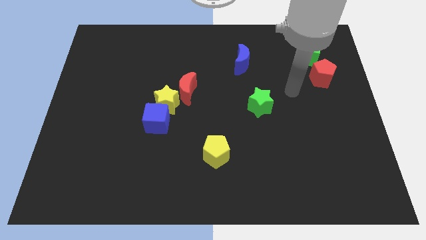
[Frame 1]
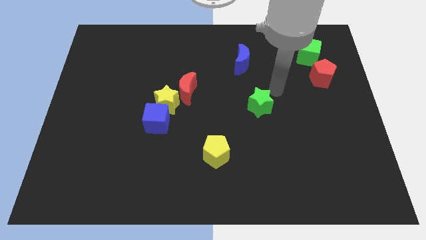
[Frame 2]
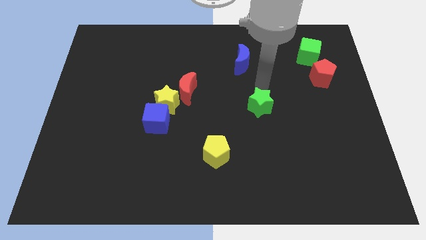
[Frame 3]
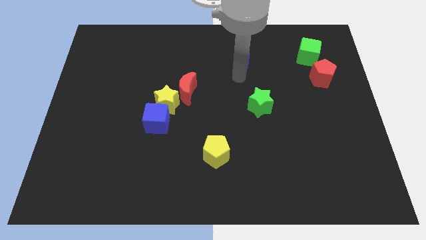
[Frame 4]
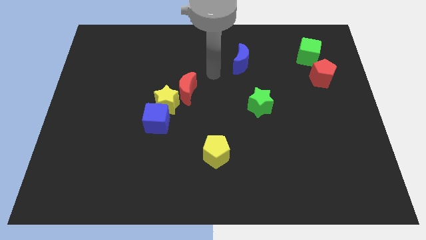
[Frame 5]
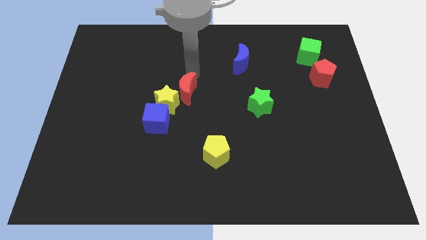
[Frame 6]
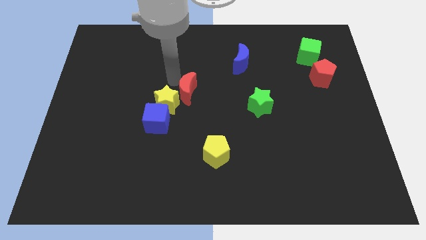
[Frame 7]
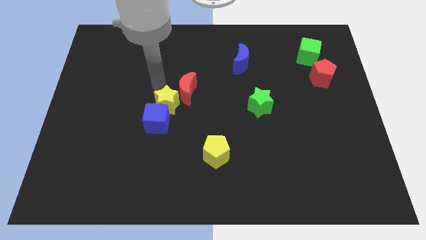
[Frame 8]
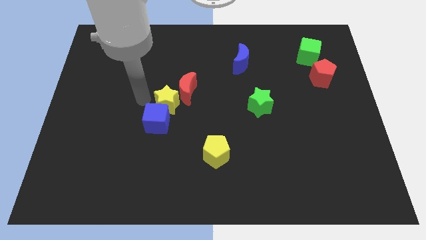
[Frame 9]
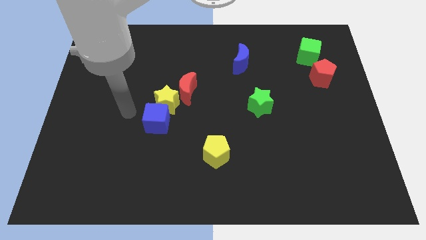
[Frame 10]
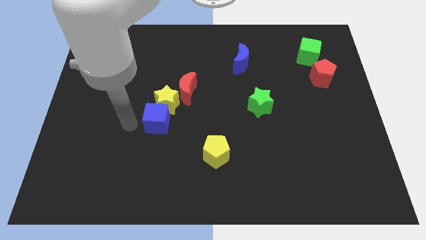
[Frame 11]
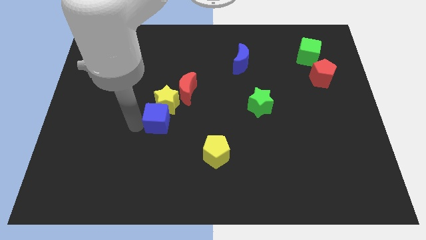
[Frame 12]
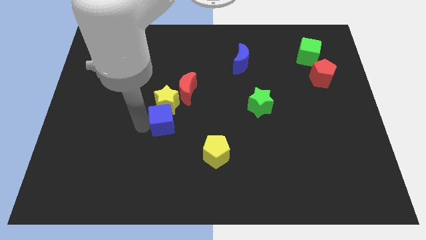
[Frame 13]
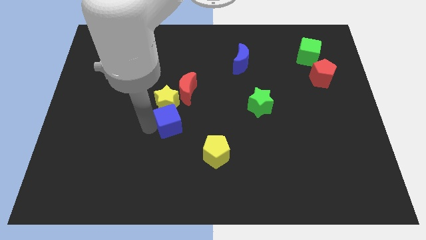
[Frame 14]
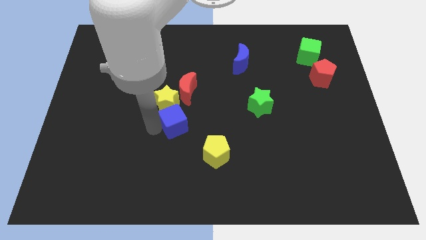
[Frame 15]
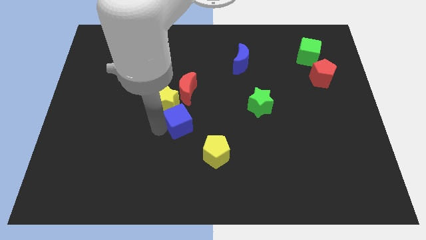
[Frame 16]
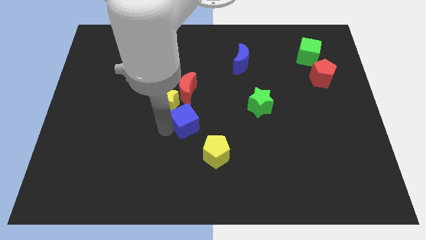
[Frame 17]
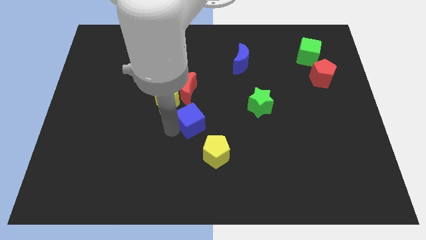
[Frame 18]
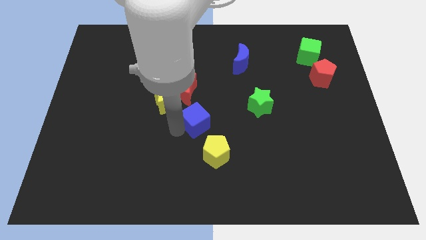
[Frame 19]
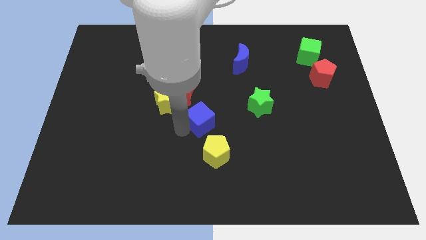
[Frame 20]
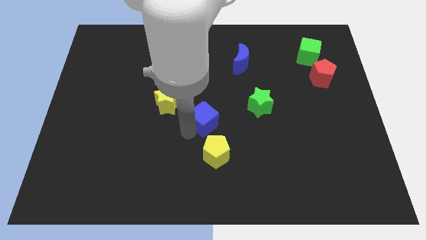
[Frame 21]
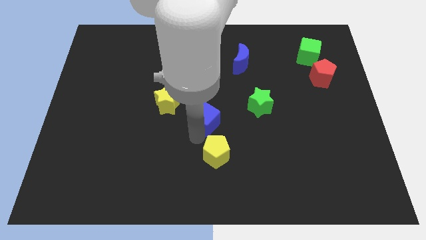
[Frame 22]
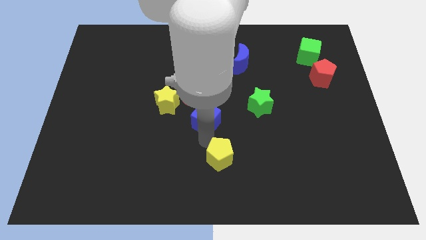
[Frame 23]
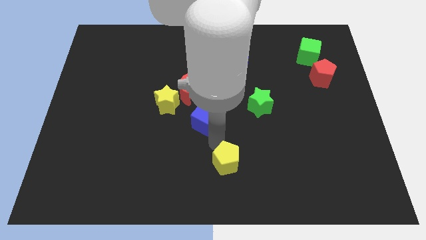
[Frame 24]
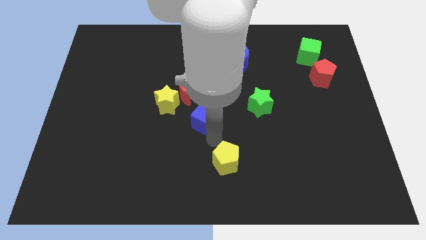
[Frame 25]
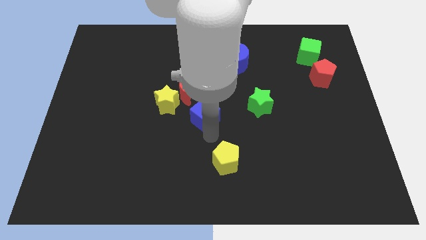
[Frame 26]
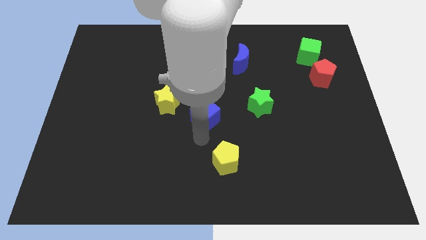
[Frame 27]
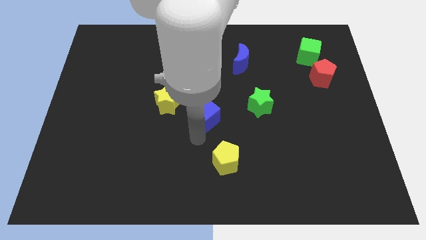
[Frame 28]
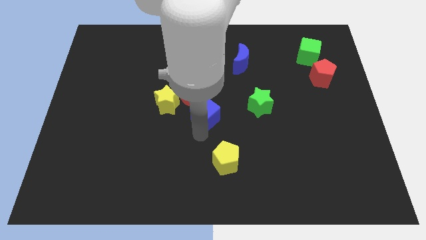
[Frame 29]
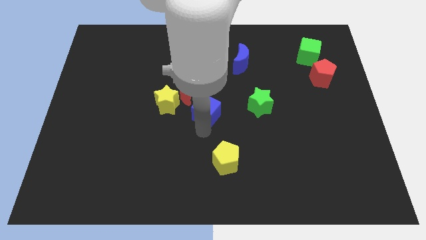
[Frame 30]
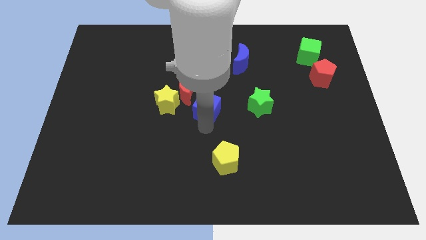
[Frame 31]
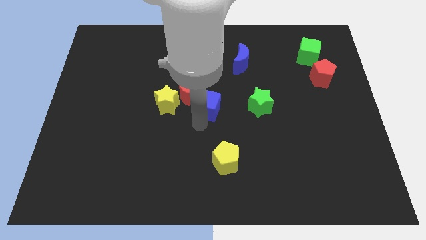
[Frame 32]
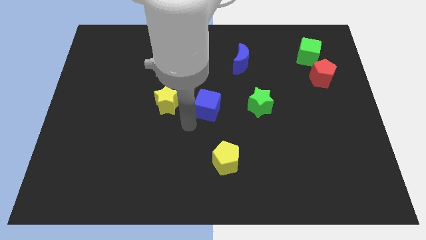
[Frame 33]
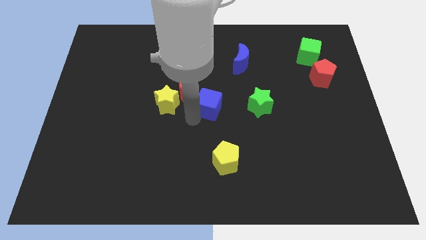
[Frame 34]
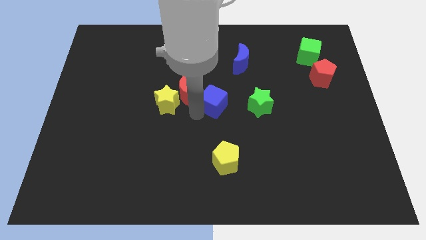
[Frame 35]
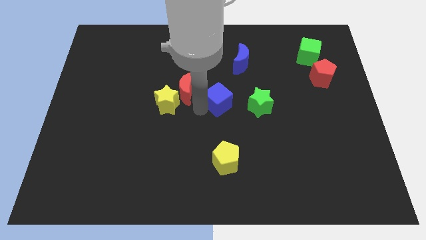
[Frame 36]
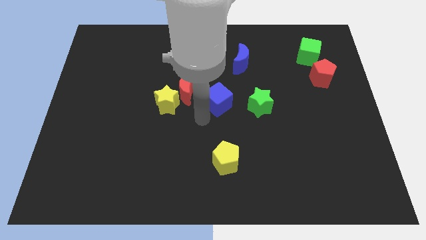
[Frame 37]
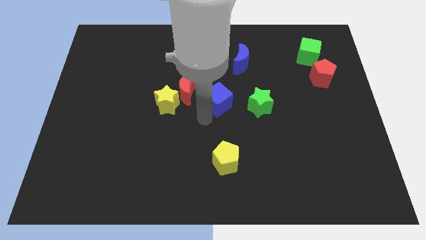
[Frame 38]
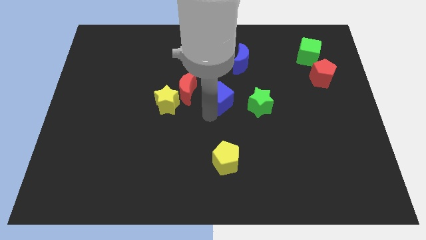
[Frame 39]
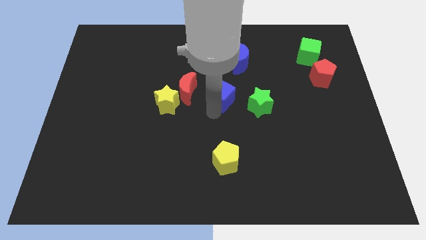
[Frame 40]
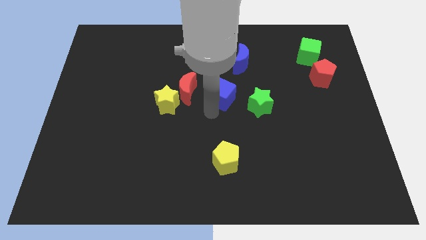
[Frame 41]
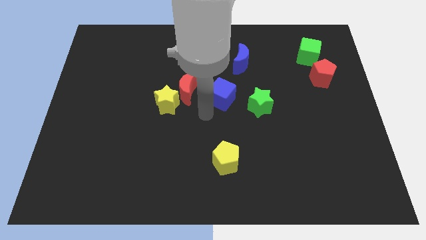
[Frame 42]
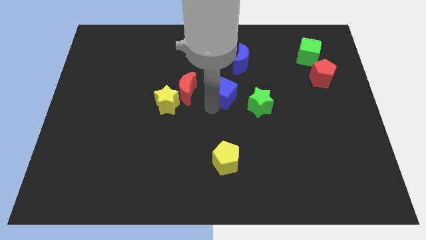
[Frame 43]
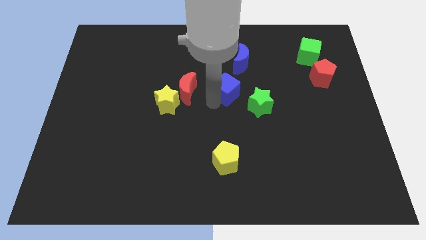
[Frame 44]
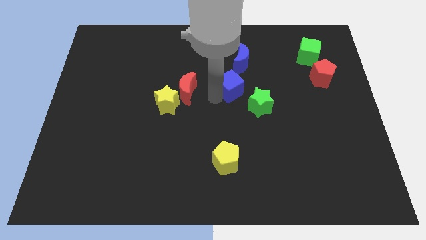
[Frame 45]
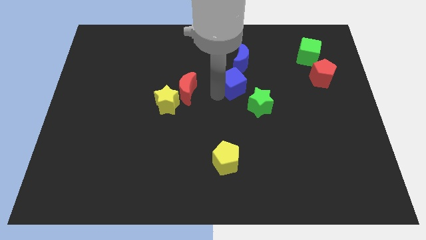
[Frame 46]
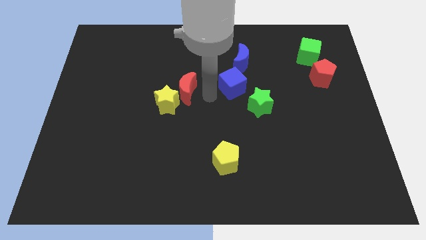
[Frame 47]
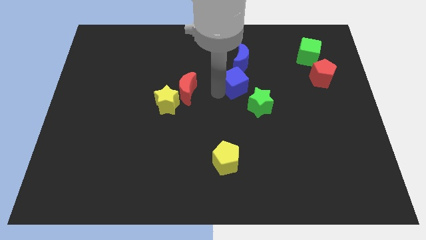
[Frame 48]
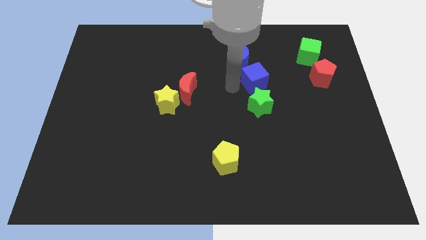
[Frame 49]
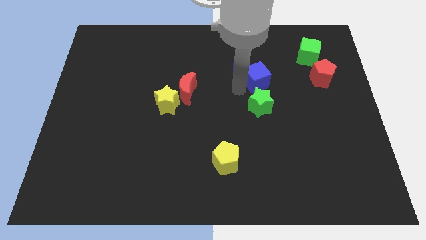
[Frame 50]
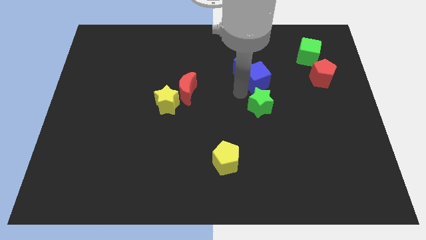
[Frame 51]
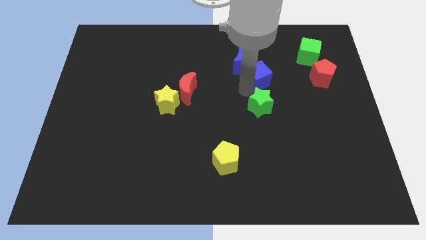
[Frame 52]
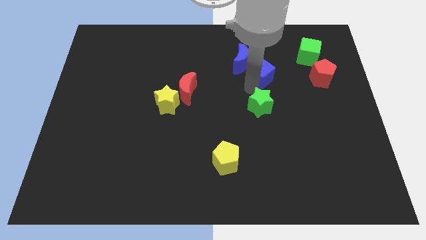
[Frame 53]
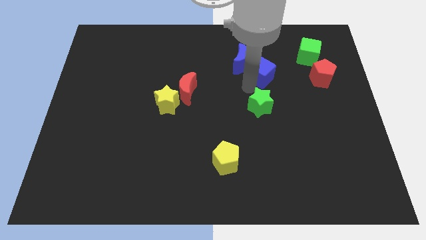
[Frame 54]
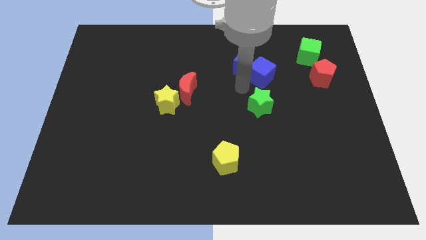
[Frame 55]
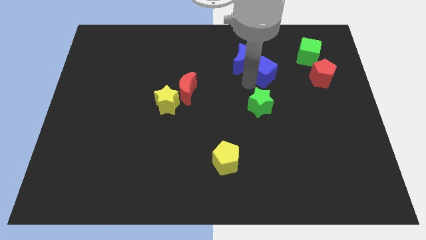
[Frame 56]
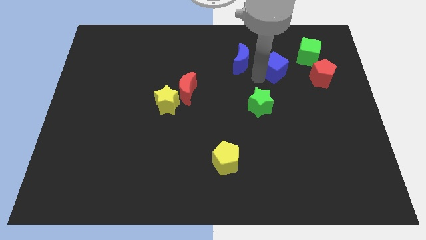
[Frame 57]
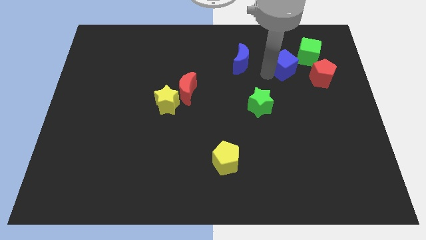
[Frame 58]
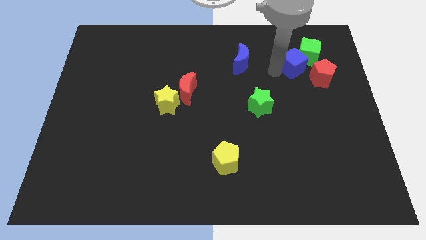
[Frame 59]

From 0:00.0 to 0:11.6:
put the blue cube close to the green cube

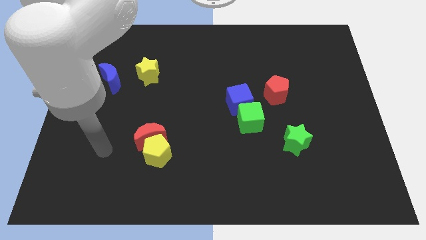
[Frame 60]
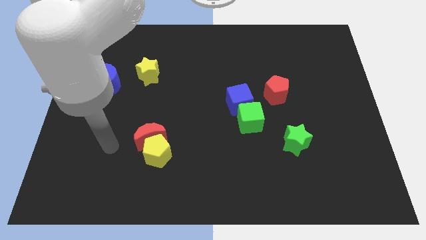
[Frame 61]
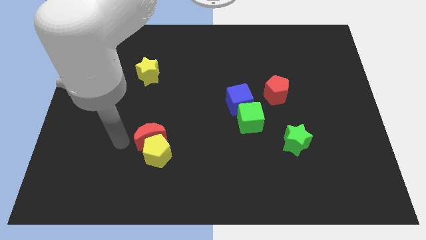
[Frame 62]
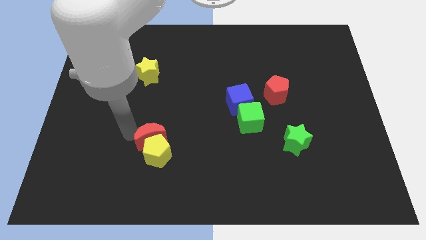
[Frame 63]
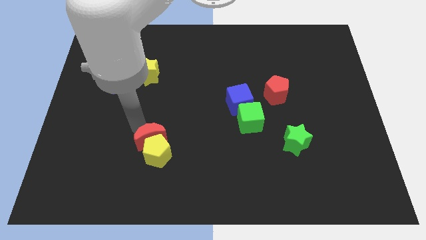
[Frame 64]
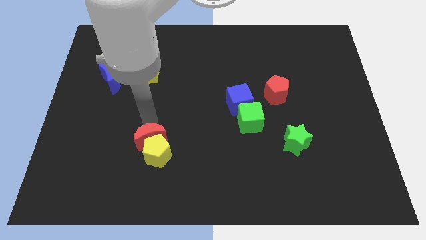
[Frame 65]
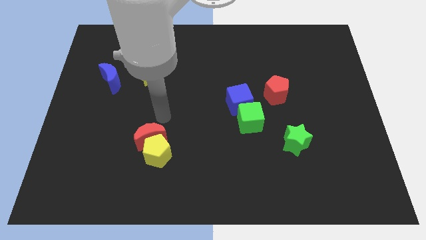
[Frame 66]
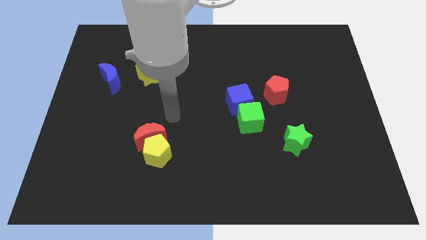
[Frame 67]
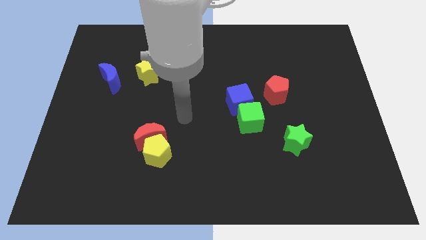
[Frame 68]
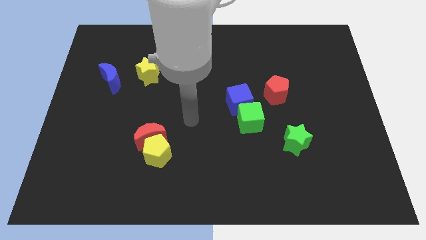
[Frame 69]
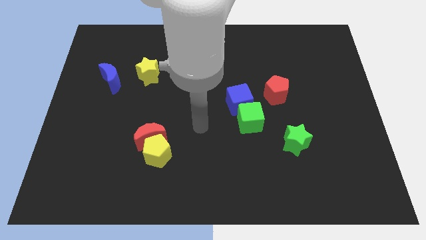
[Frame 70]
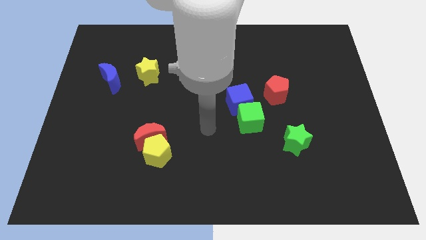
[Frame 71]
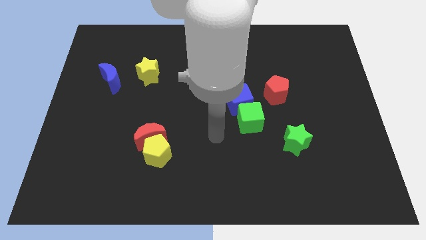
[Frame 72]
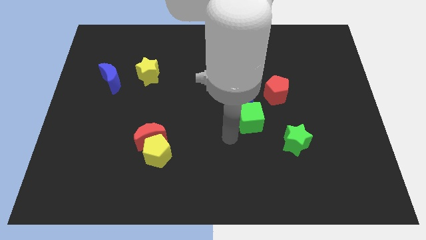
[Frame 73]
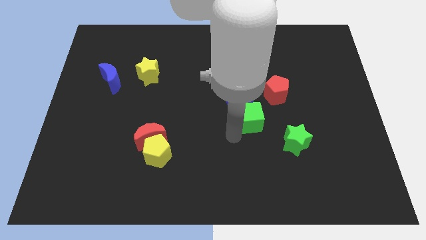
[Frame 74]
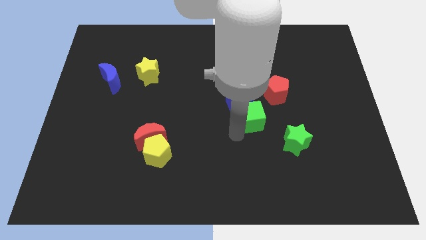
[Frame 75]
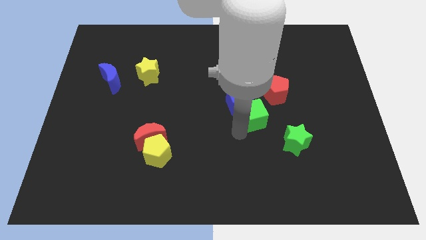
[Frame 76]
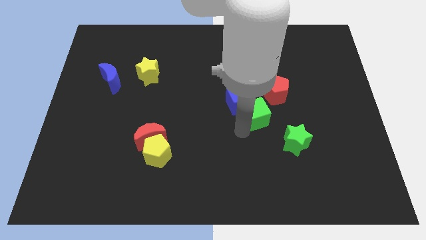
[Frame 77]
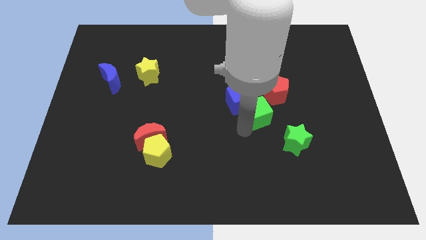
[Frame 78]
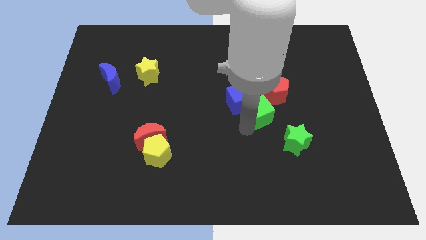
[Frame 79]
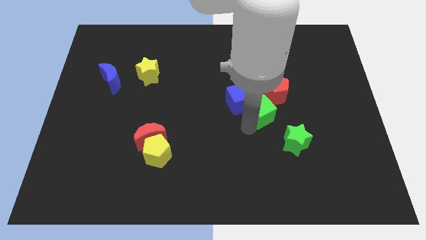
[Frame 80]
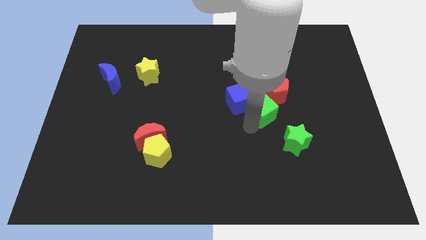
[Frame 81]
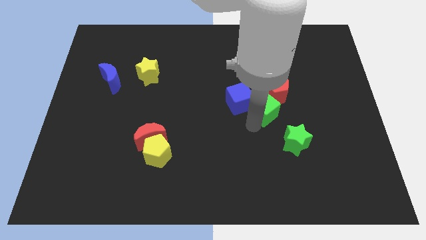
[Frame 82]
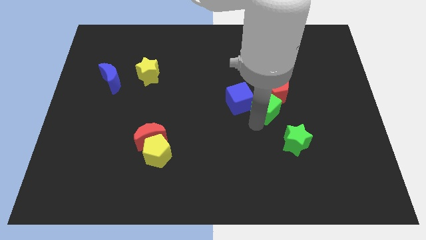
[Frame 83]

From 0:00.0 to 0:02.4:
slide the green cube towards the red pentagon
